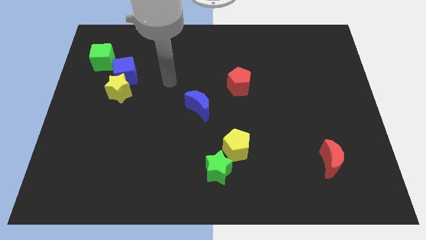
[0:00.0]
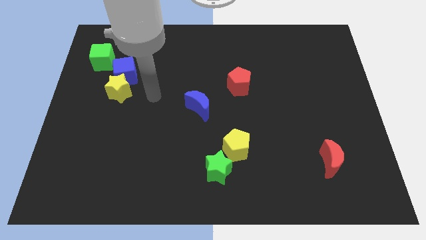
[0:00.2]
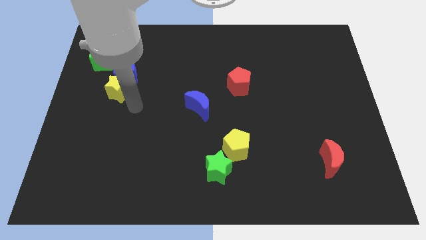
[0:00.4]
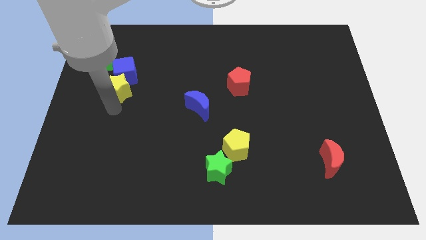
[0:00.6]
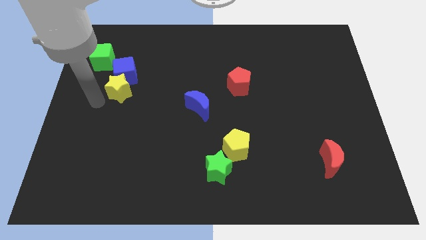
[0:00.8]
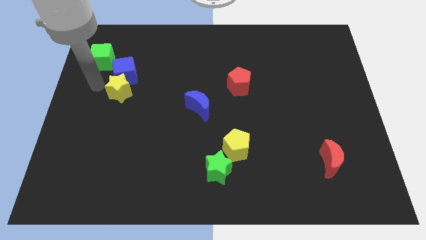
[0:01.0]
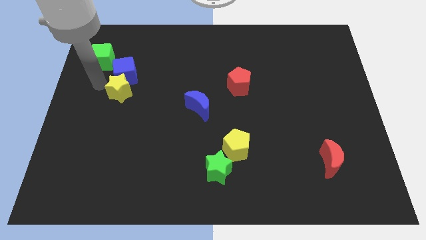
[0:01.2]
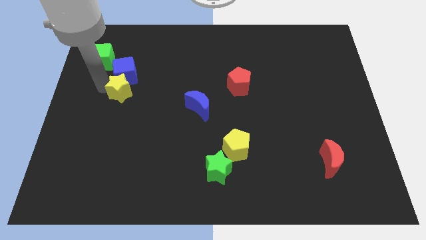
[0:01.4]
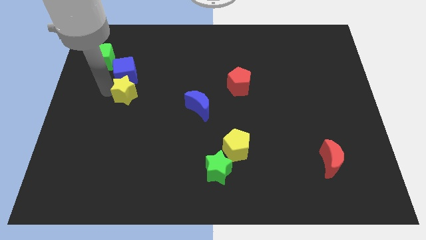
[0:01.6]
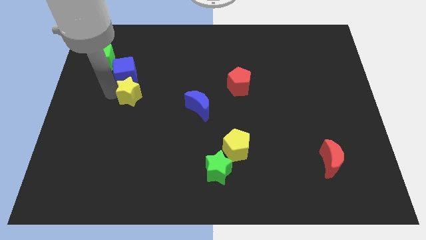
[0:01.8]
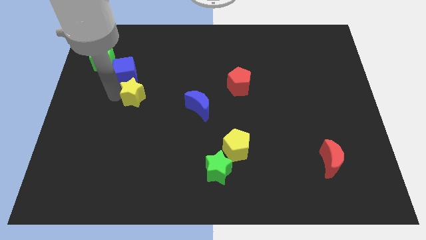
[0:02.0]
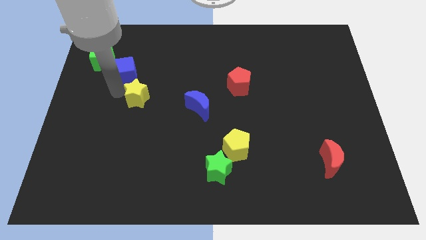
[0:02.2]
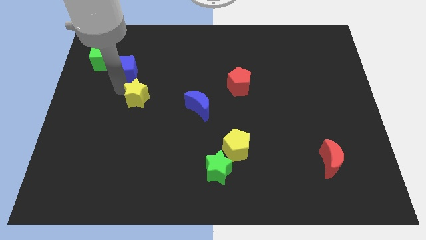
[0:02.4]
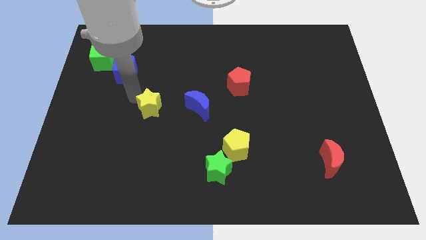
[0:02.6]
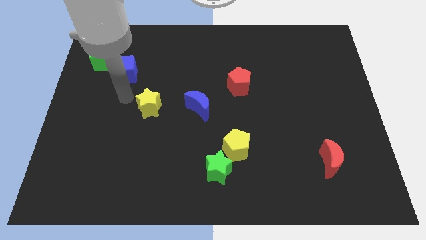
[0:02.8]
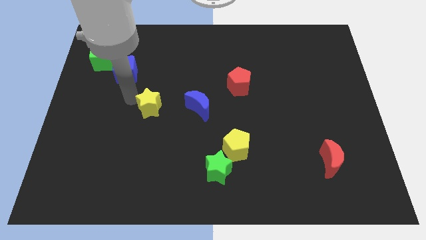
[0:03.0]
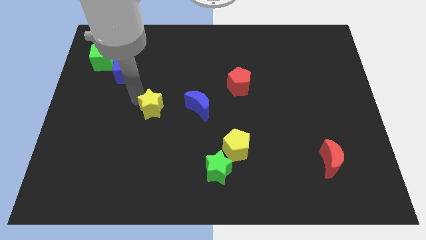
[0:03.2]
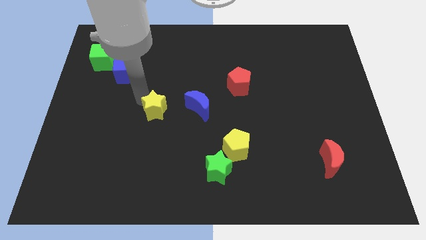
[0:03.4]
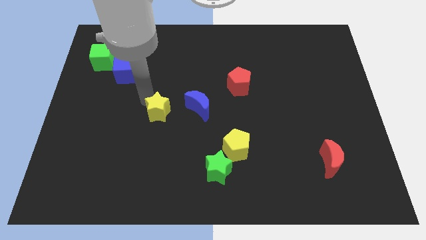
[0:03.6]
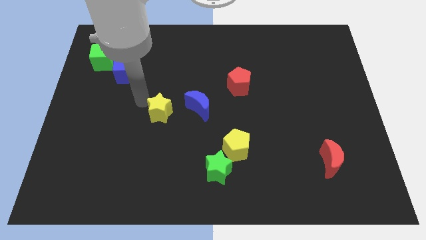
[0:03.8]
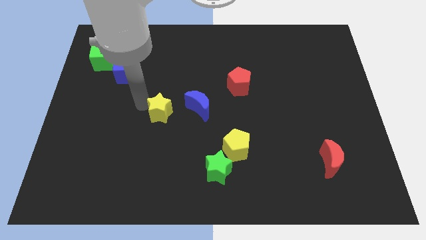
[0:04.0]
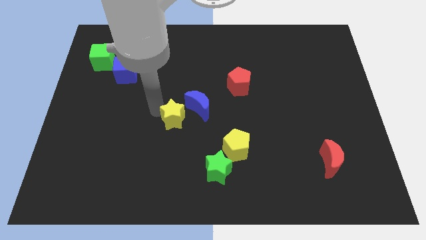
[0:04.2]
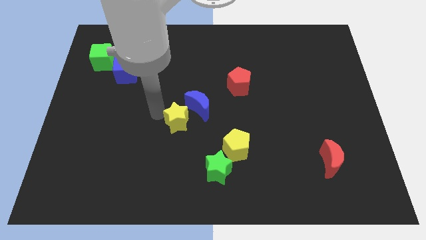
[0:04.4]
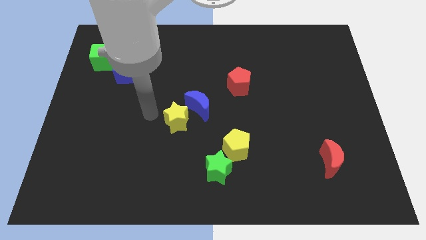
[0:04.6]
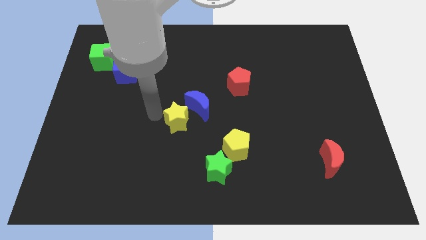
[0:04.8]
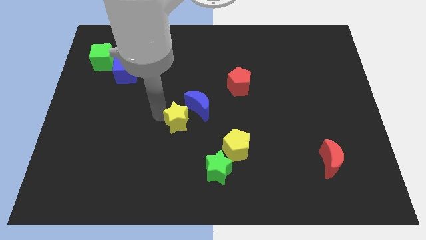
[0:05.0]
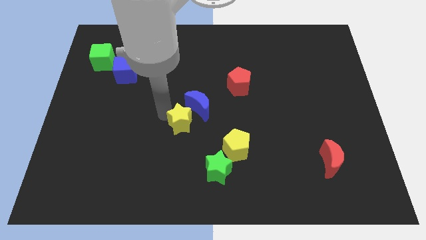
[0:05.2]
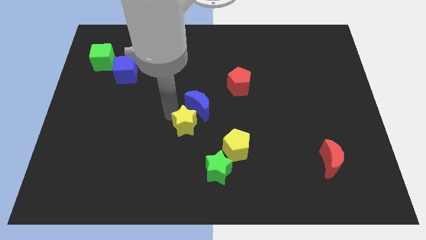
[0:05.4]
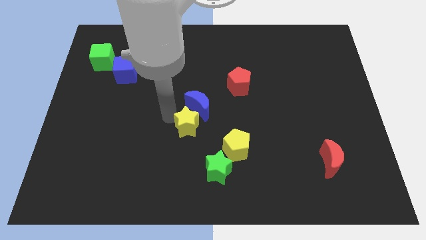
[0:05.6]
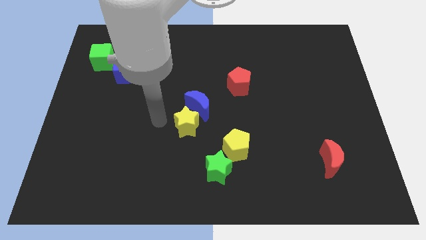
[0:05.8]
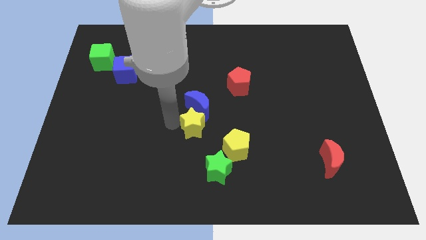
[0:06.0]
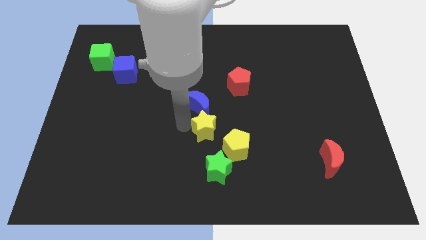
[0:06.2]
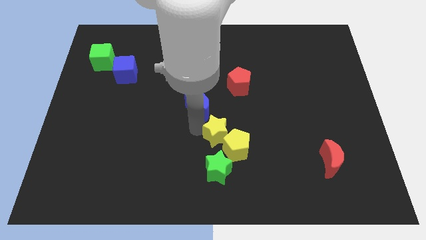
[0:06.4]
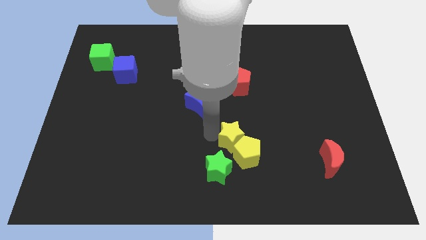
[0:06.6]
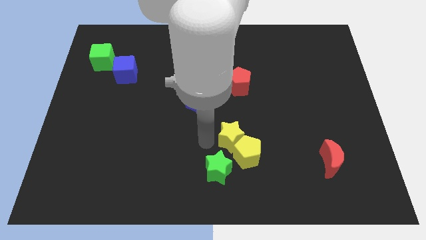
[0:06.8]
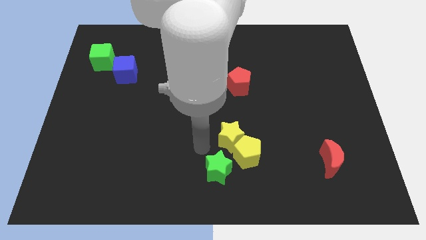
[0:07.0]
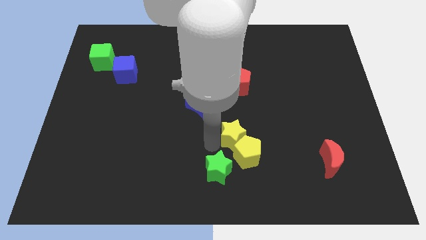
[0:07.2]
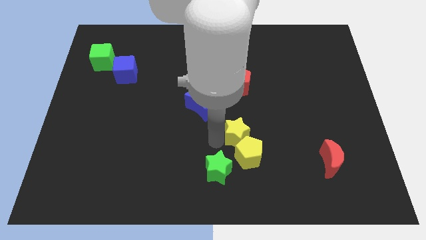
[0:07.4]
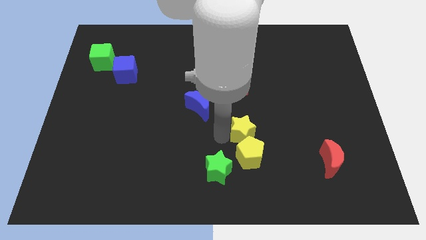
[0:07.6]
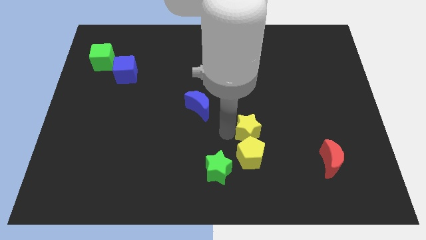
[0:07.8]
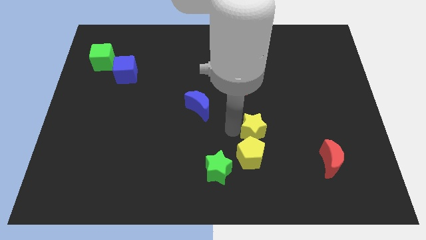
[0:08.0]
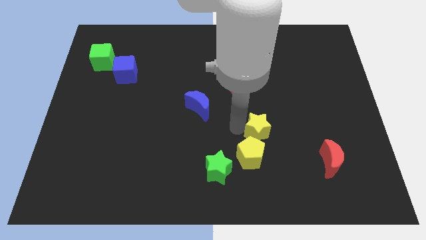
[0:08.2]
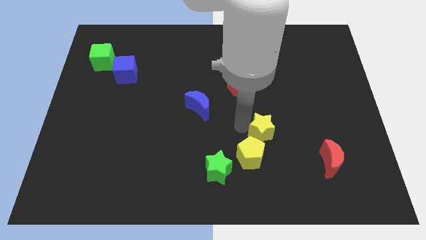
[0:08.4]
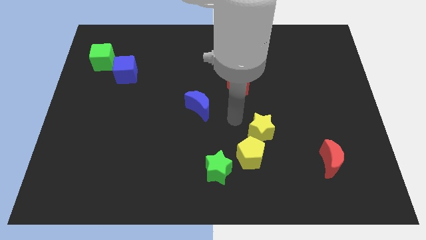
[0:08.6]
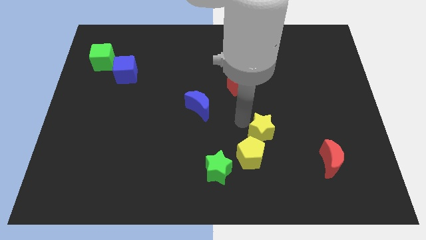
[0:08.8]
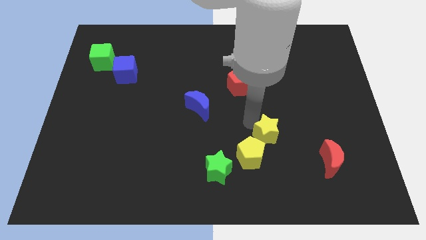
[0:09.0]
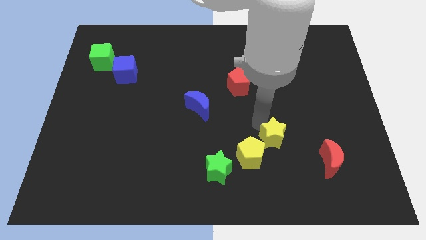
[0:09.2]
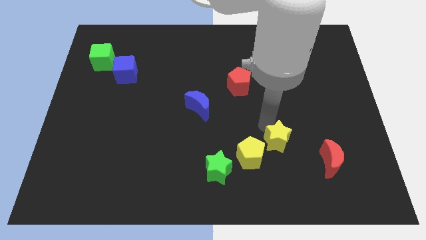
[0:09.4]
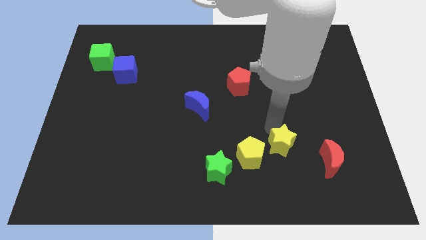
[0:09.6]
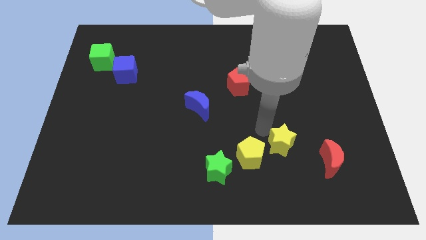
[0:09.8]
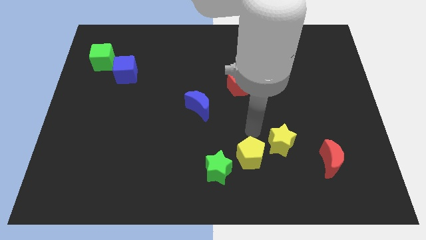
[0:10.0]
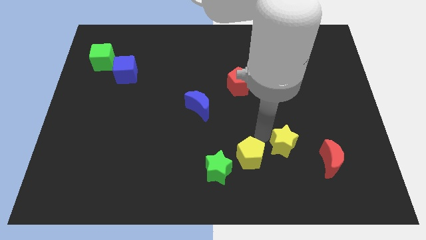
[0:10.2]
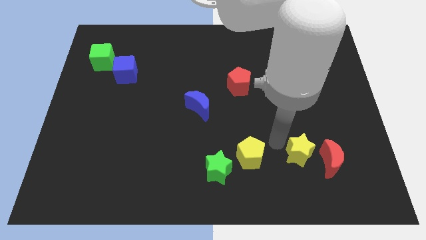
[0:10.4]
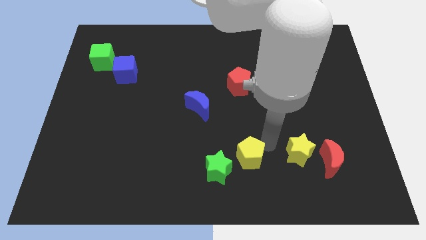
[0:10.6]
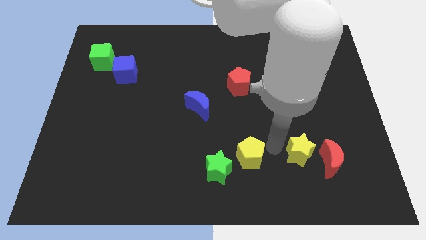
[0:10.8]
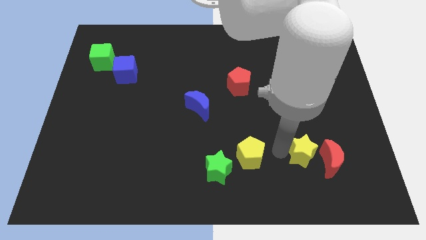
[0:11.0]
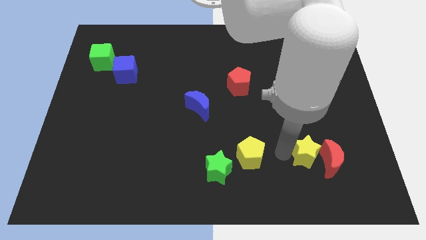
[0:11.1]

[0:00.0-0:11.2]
put the yellow star towards the red moon

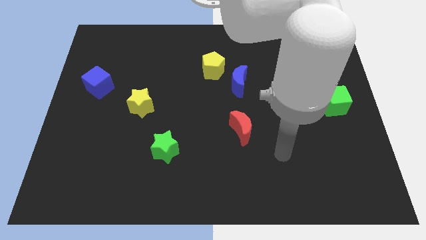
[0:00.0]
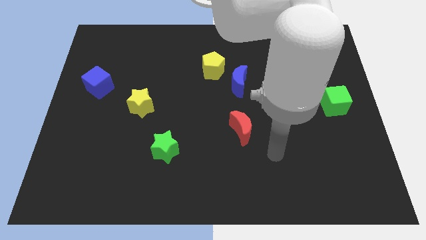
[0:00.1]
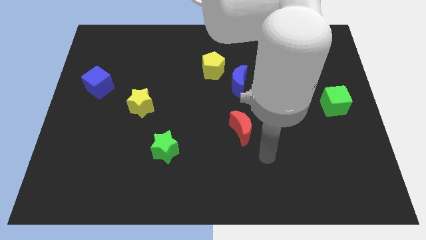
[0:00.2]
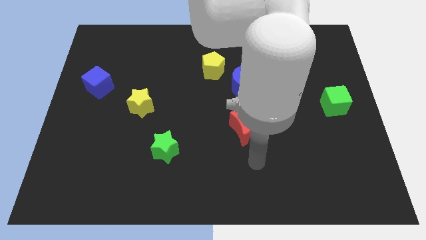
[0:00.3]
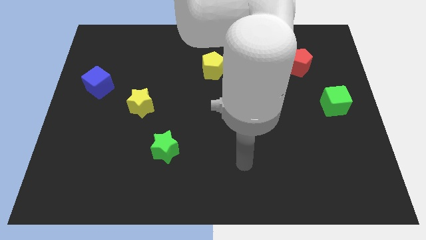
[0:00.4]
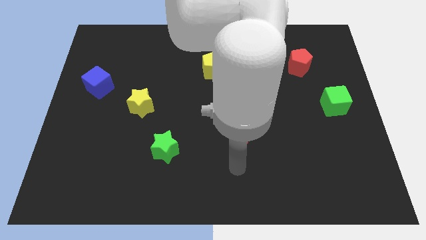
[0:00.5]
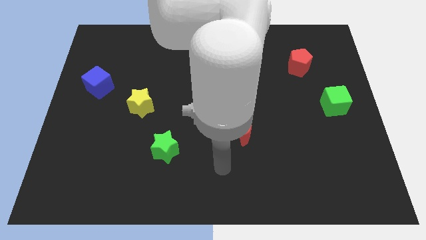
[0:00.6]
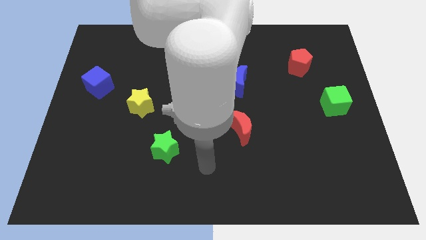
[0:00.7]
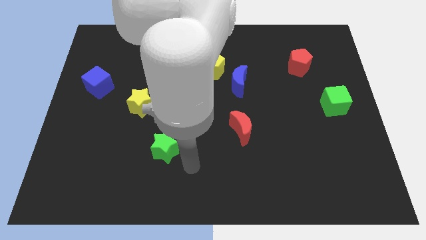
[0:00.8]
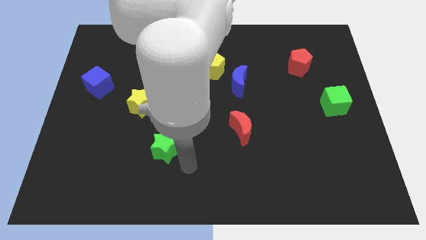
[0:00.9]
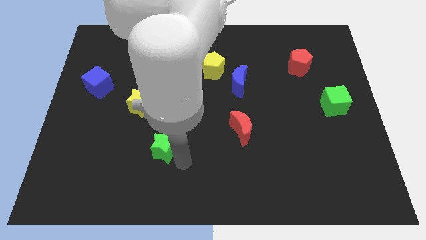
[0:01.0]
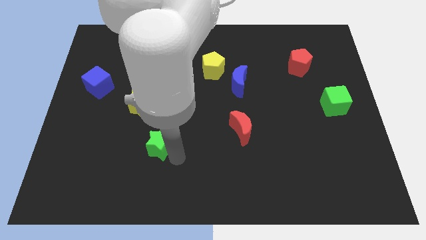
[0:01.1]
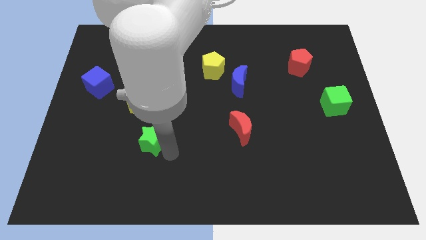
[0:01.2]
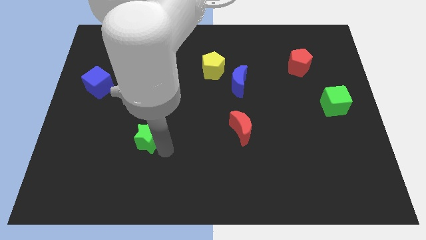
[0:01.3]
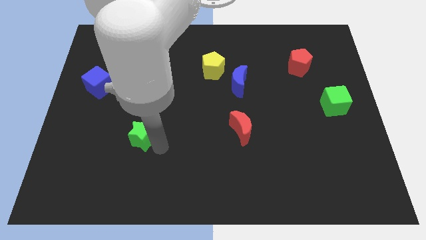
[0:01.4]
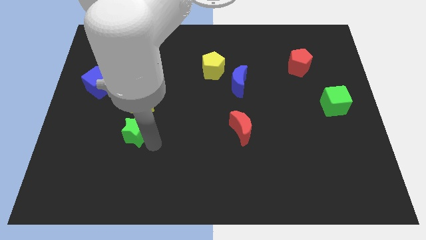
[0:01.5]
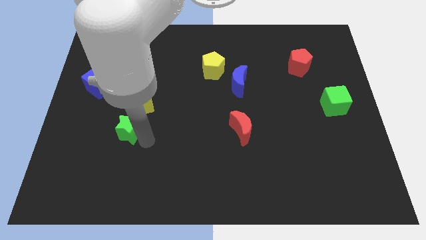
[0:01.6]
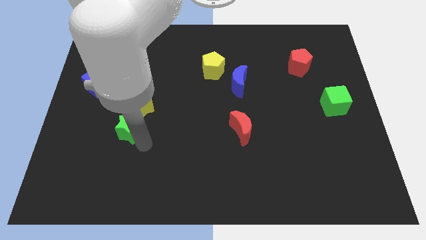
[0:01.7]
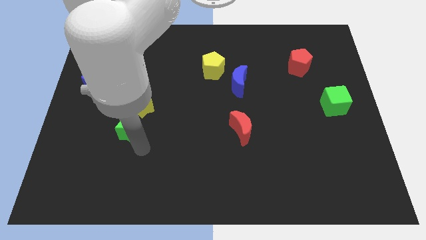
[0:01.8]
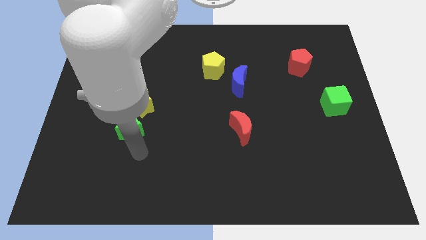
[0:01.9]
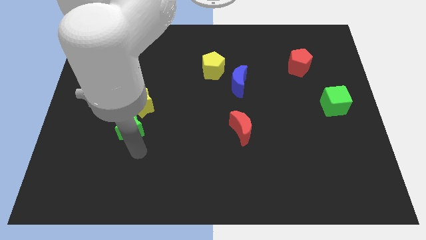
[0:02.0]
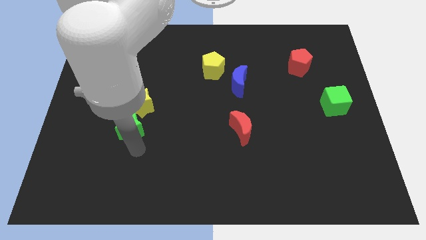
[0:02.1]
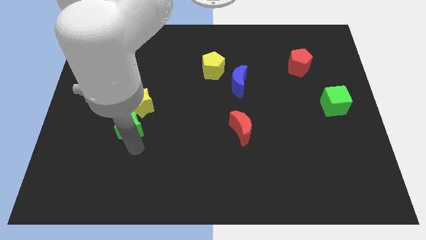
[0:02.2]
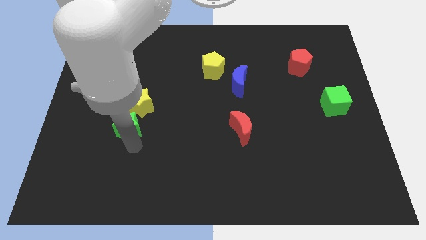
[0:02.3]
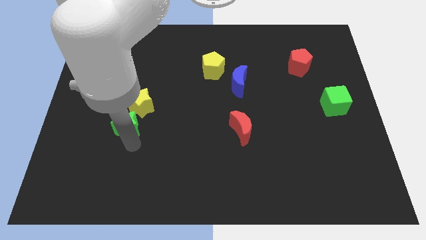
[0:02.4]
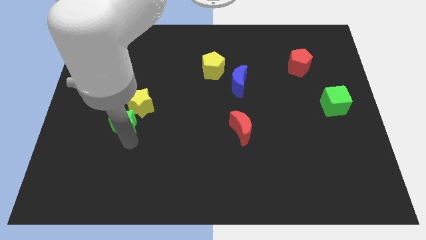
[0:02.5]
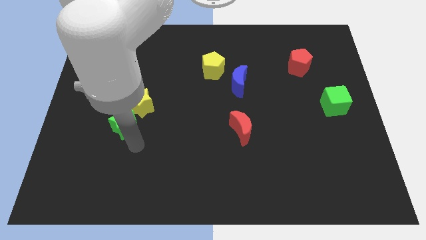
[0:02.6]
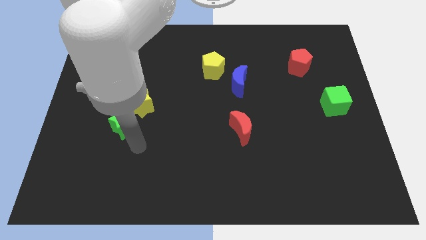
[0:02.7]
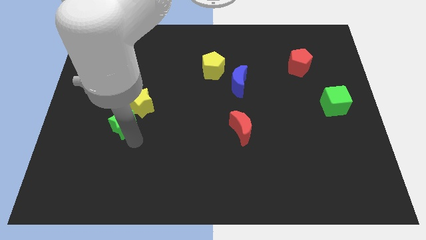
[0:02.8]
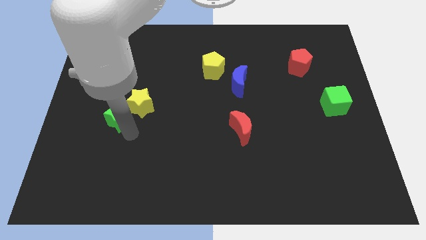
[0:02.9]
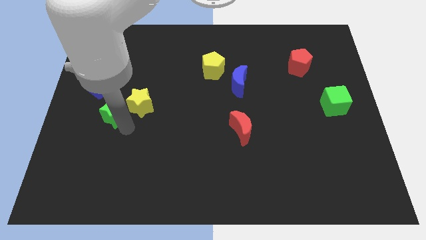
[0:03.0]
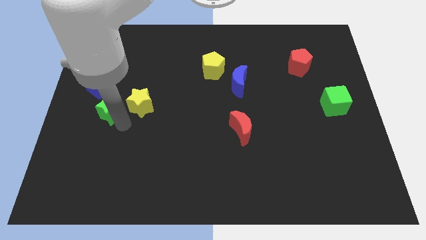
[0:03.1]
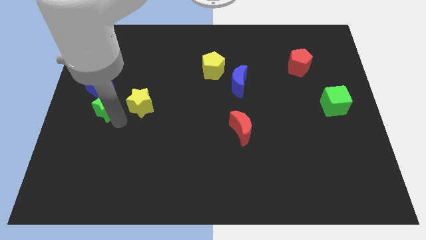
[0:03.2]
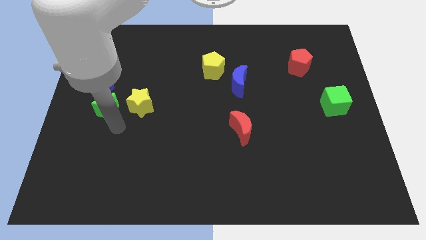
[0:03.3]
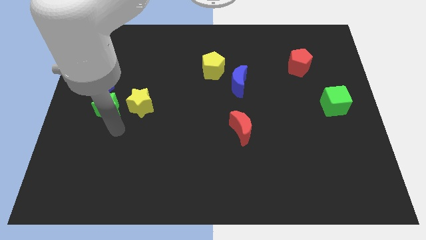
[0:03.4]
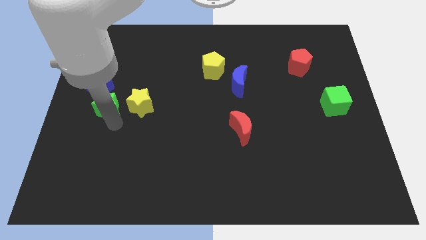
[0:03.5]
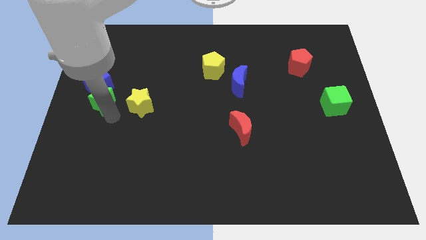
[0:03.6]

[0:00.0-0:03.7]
slide the green star to the blue cube
